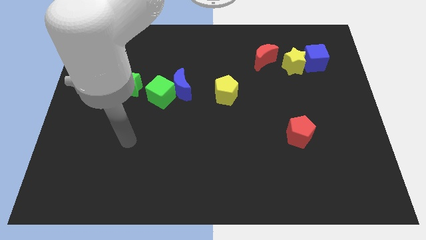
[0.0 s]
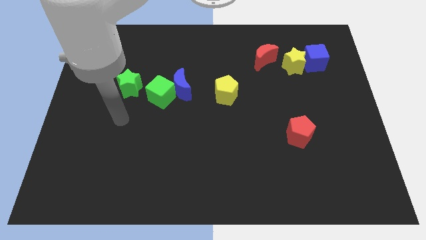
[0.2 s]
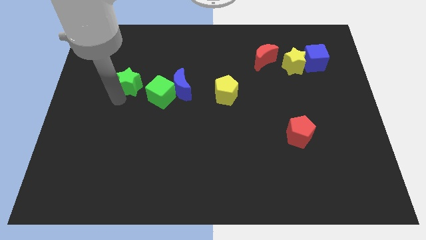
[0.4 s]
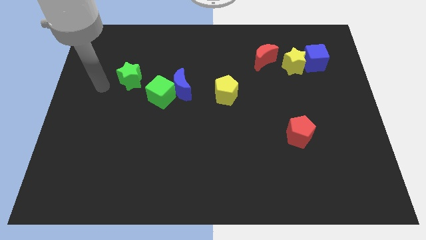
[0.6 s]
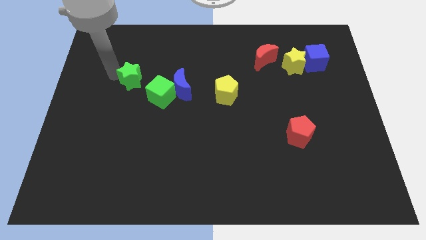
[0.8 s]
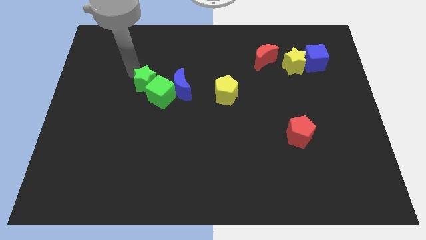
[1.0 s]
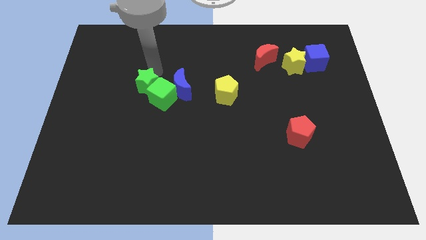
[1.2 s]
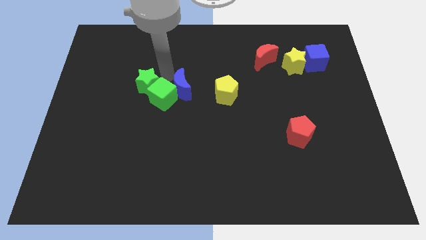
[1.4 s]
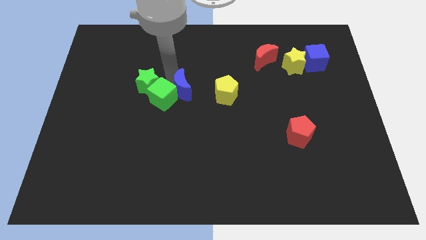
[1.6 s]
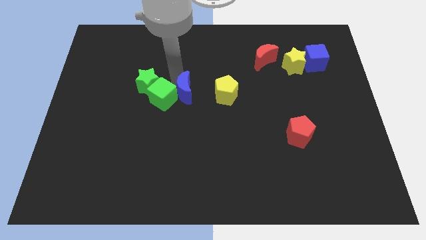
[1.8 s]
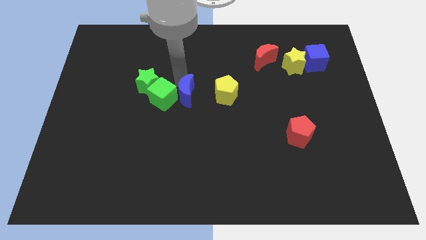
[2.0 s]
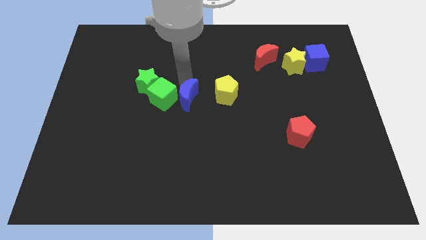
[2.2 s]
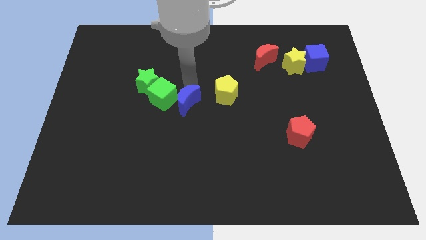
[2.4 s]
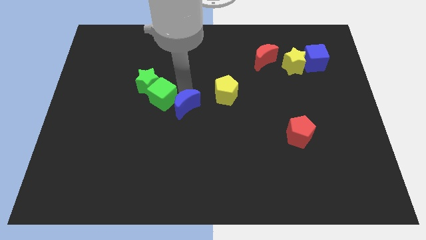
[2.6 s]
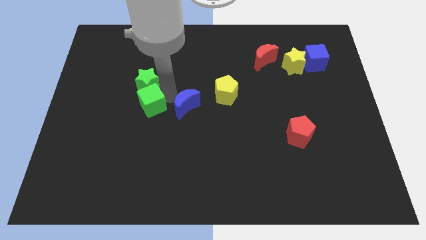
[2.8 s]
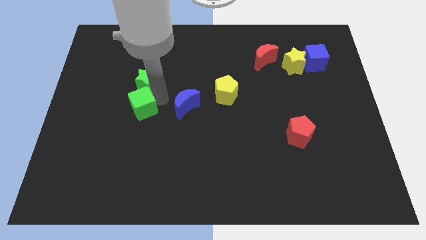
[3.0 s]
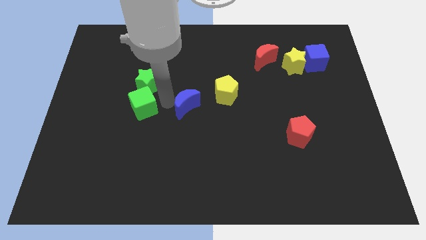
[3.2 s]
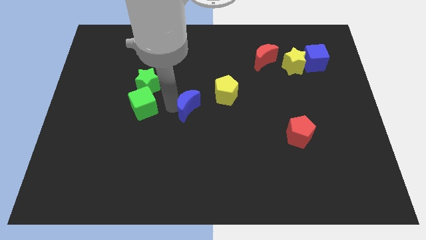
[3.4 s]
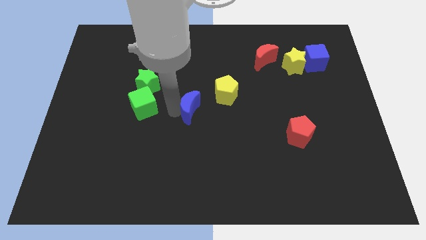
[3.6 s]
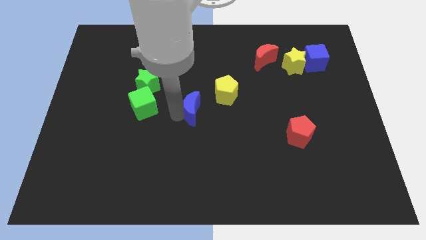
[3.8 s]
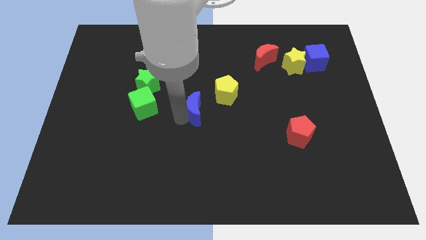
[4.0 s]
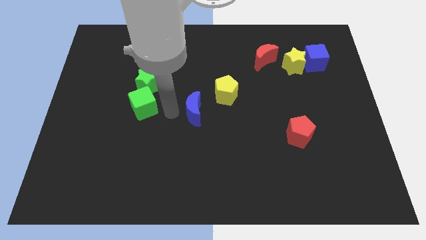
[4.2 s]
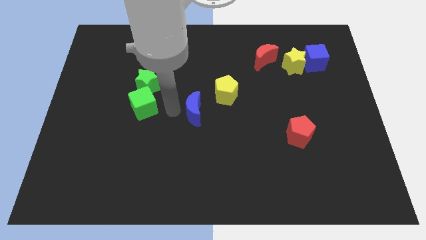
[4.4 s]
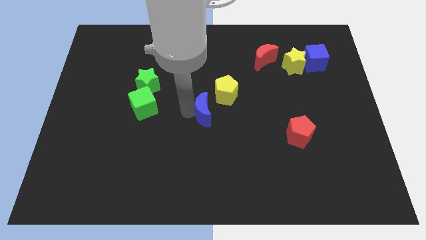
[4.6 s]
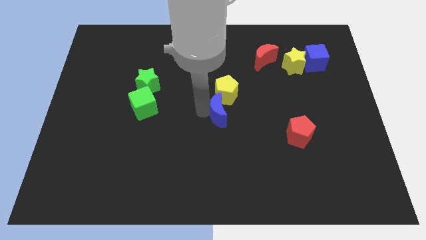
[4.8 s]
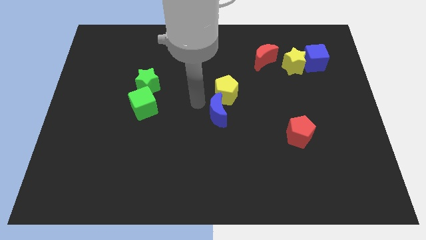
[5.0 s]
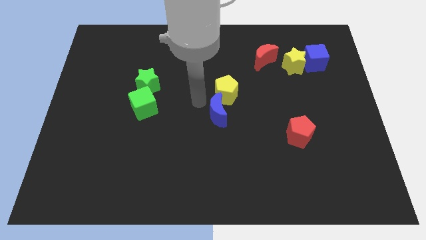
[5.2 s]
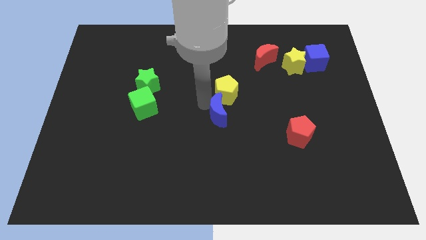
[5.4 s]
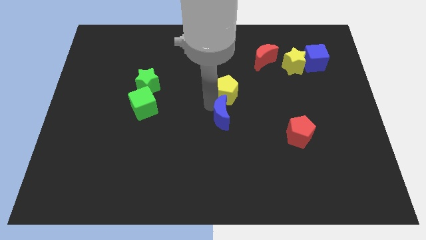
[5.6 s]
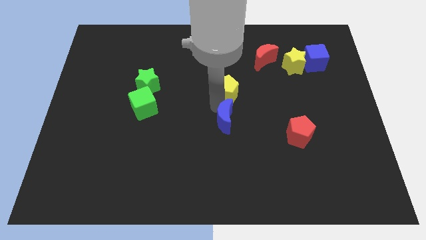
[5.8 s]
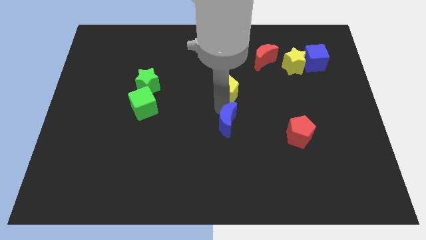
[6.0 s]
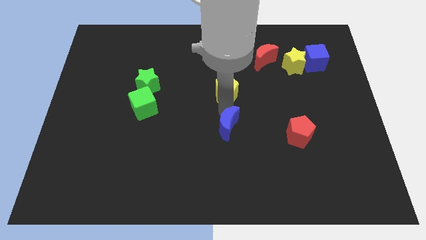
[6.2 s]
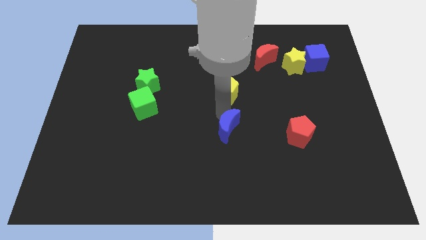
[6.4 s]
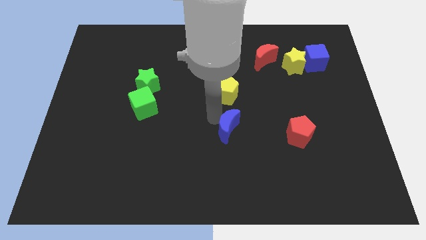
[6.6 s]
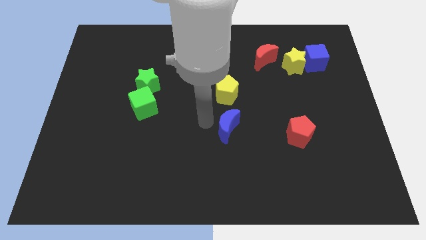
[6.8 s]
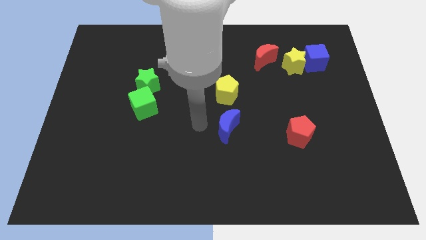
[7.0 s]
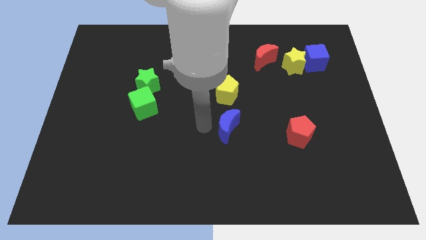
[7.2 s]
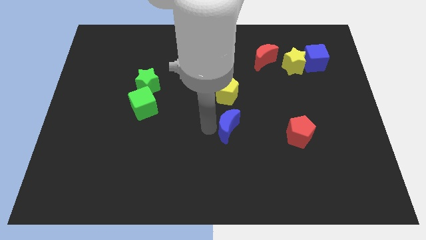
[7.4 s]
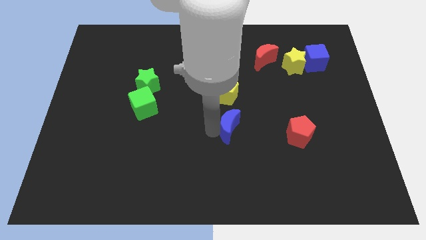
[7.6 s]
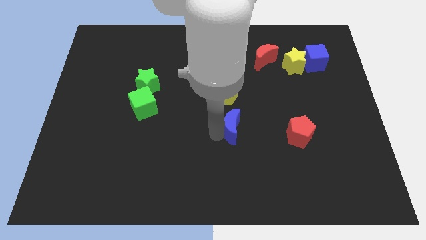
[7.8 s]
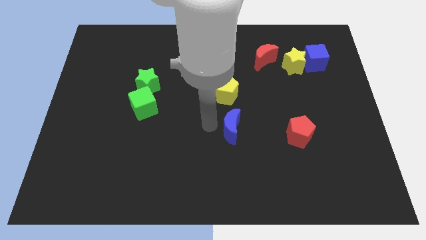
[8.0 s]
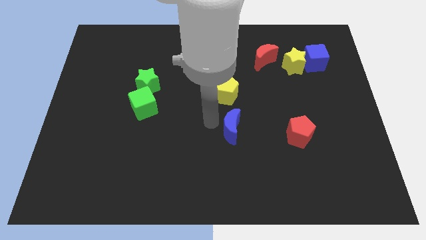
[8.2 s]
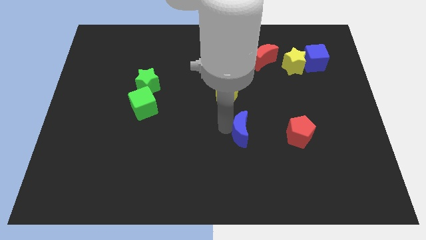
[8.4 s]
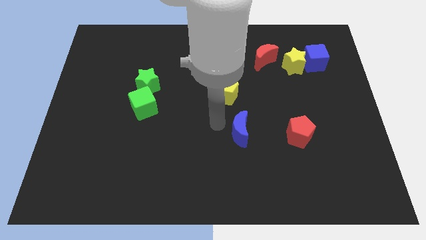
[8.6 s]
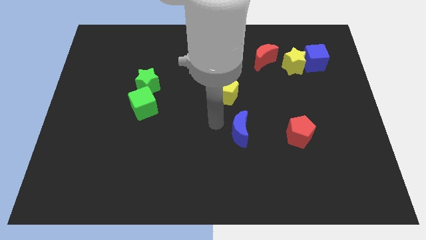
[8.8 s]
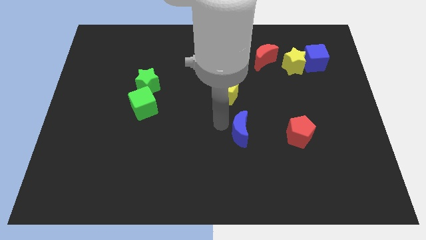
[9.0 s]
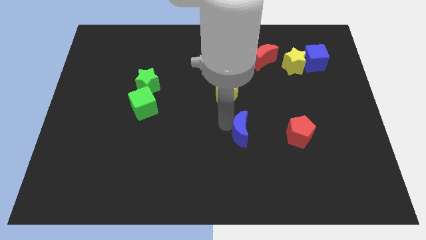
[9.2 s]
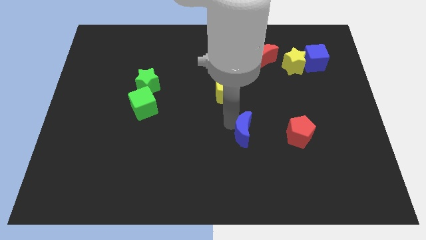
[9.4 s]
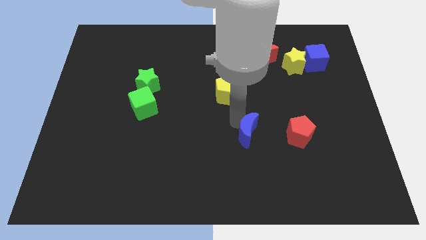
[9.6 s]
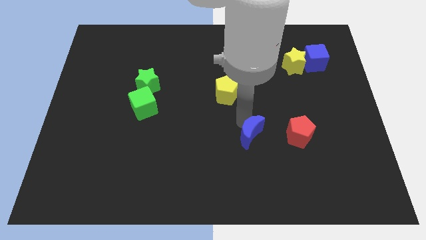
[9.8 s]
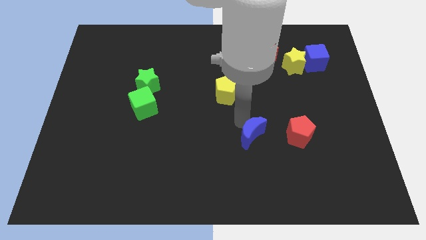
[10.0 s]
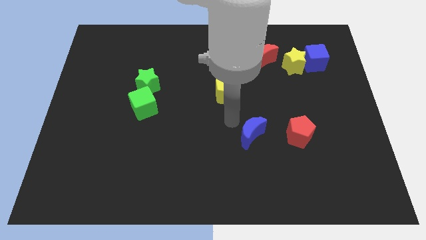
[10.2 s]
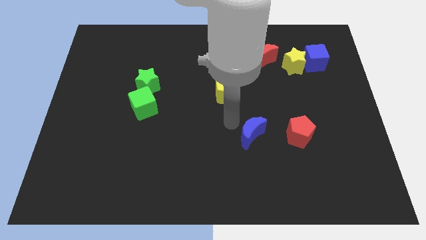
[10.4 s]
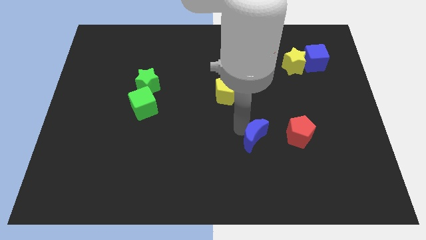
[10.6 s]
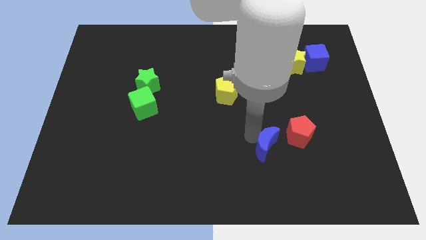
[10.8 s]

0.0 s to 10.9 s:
put the blue moon to the bottom left of the red pentagon

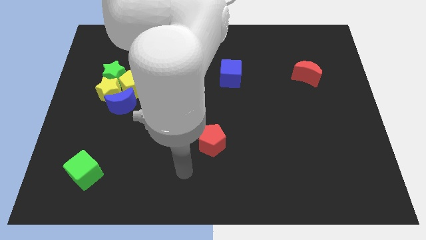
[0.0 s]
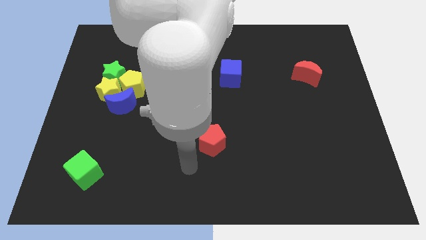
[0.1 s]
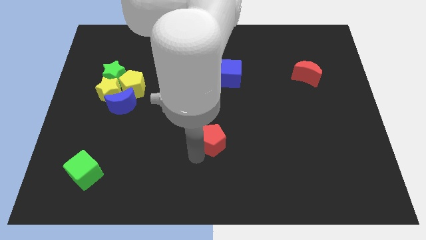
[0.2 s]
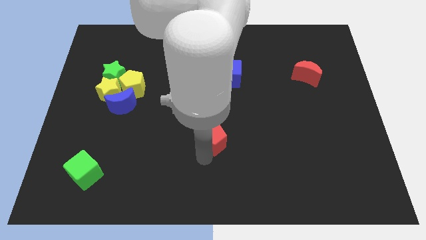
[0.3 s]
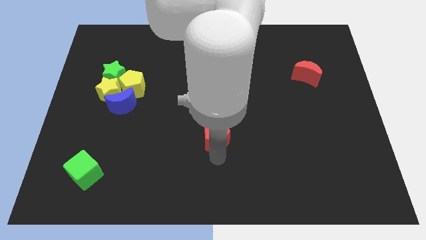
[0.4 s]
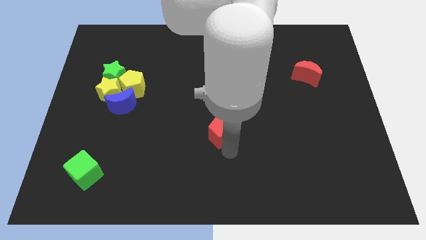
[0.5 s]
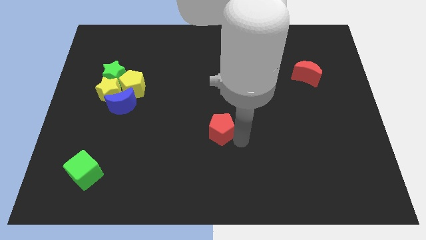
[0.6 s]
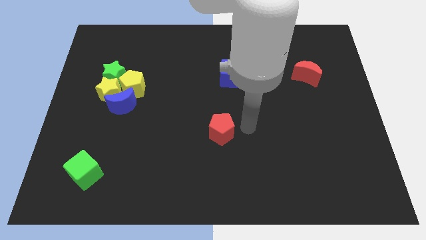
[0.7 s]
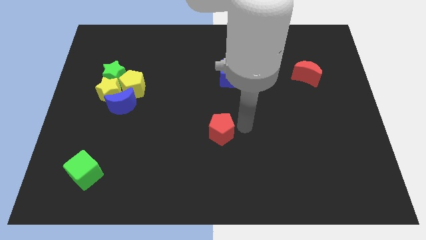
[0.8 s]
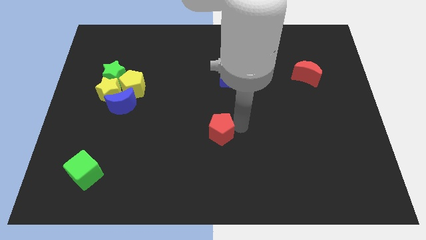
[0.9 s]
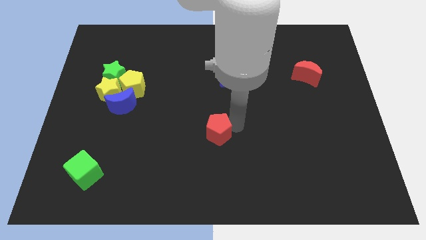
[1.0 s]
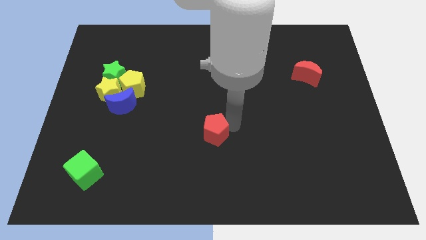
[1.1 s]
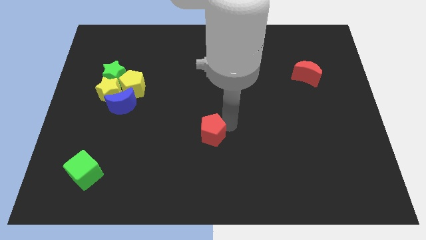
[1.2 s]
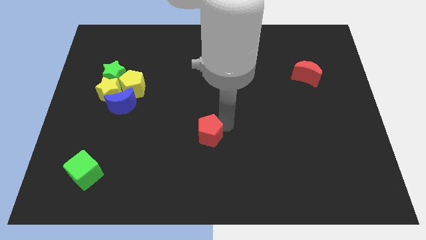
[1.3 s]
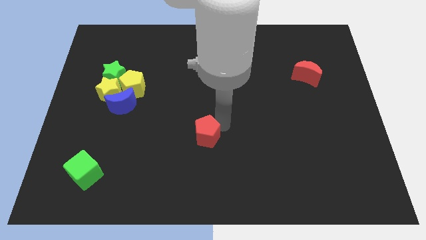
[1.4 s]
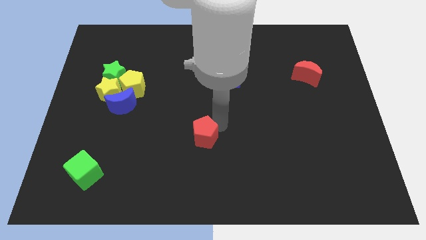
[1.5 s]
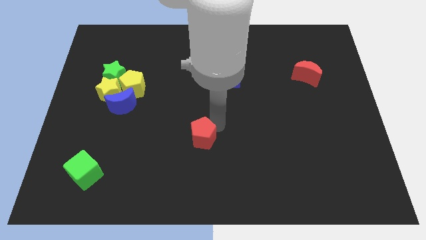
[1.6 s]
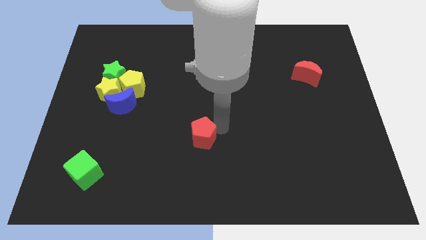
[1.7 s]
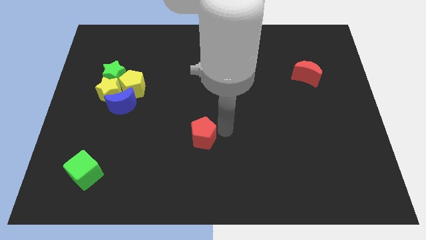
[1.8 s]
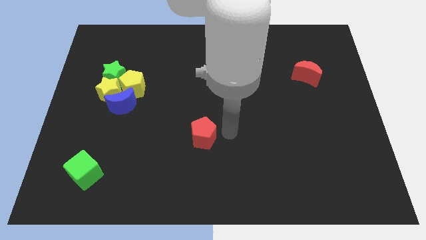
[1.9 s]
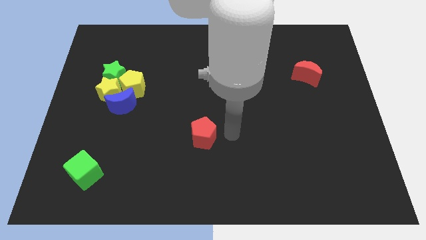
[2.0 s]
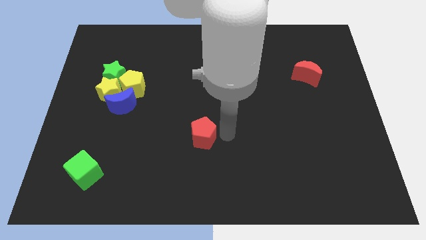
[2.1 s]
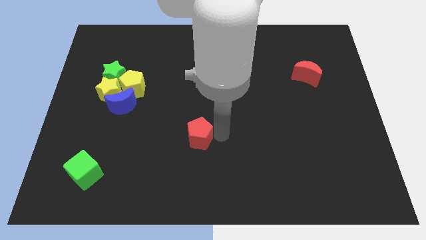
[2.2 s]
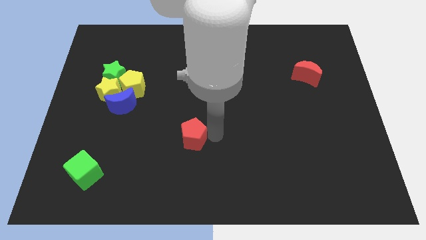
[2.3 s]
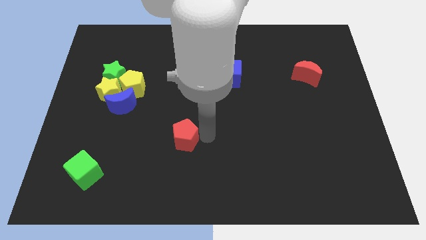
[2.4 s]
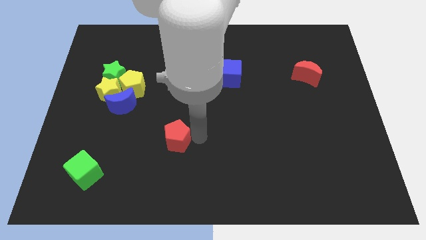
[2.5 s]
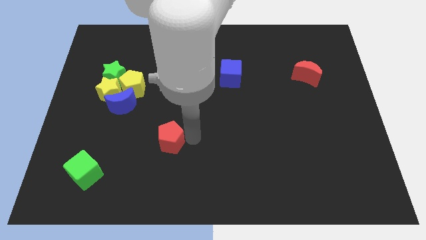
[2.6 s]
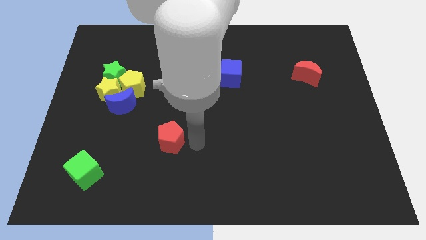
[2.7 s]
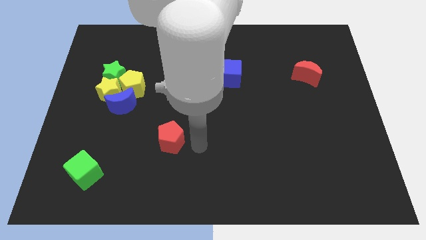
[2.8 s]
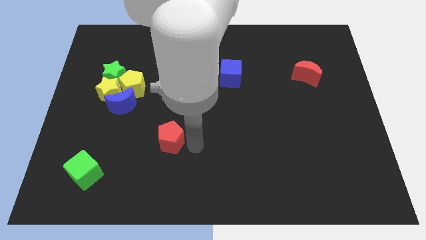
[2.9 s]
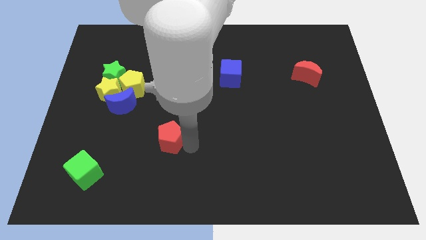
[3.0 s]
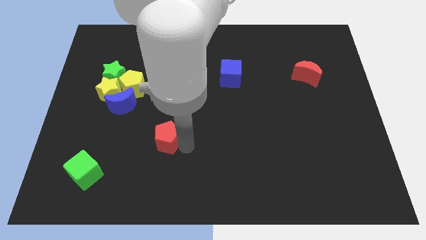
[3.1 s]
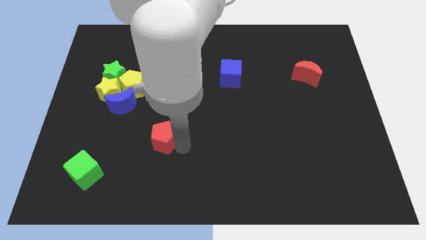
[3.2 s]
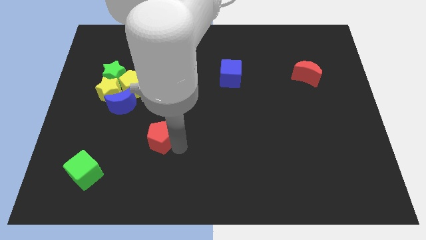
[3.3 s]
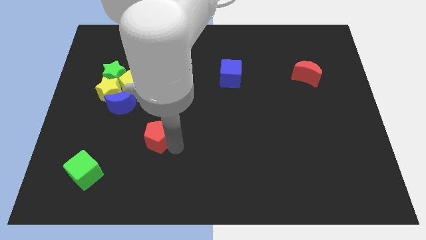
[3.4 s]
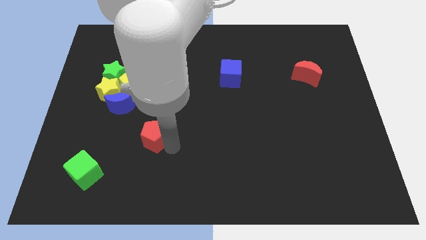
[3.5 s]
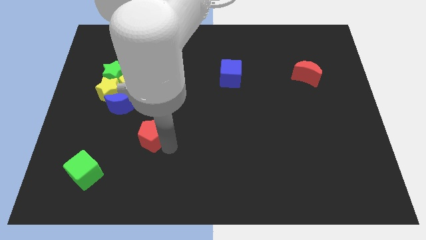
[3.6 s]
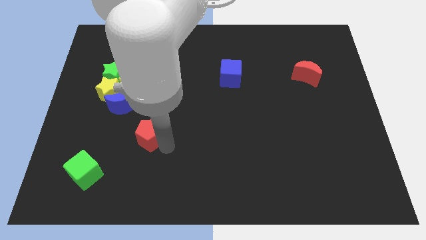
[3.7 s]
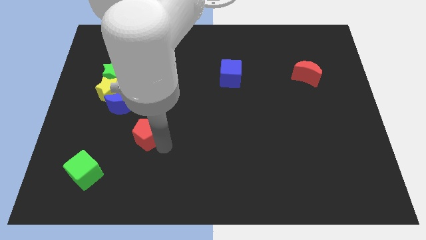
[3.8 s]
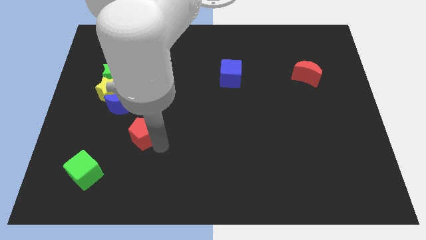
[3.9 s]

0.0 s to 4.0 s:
move the red pentagon to the bottom side of the yellow pentagon
